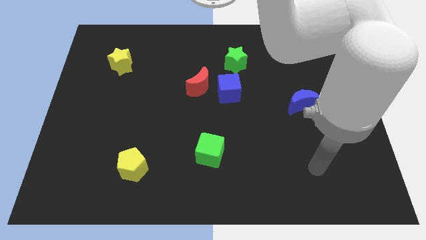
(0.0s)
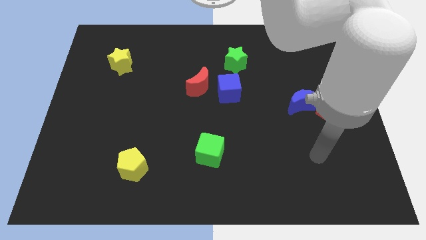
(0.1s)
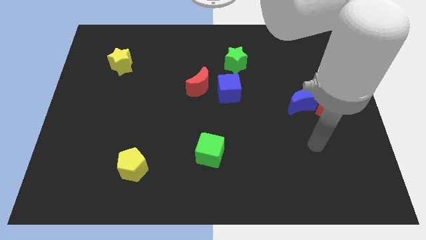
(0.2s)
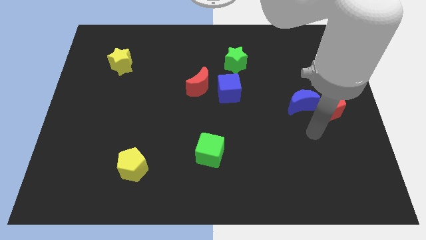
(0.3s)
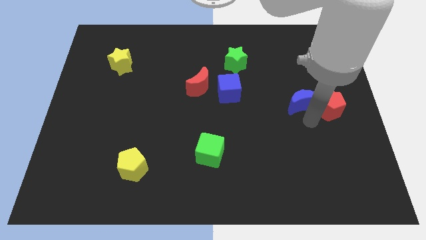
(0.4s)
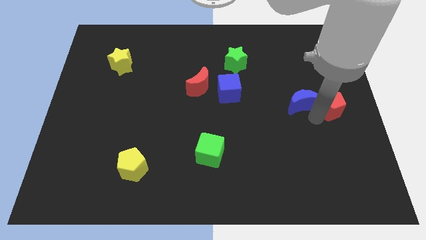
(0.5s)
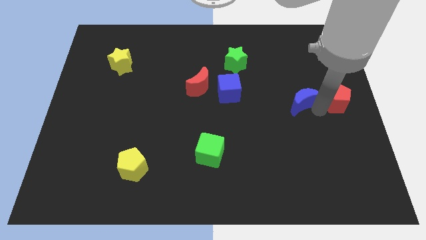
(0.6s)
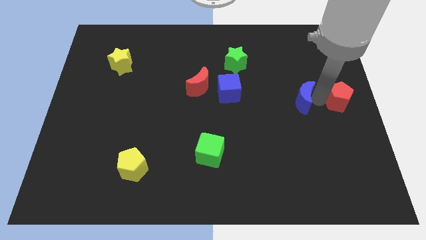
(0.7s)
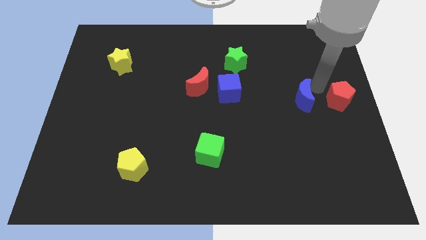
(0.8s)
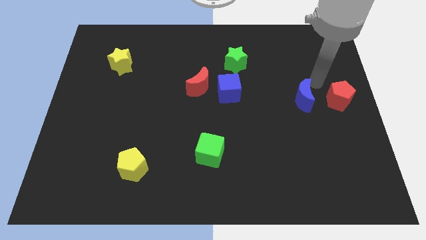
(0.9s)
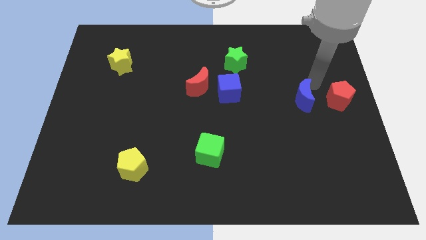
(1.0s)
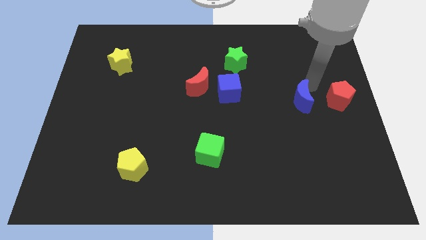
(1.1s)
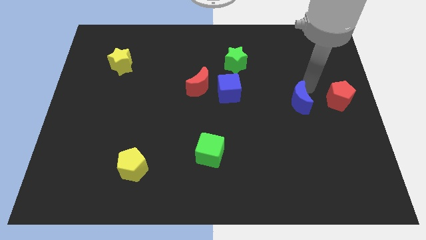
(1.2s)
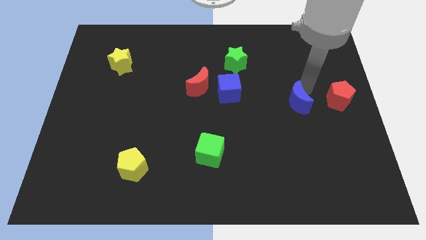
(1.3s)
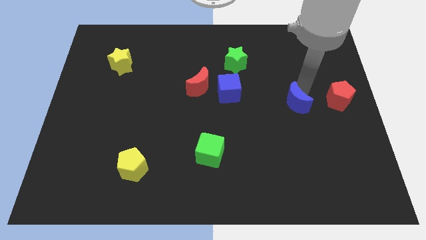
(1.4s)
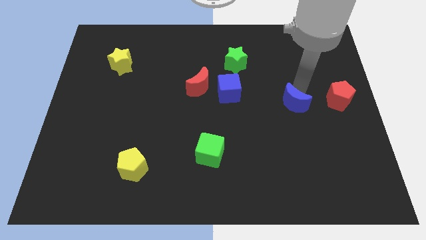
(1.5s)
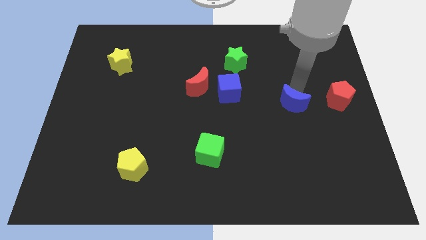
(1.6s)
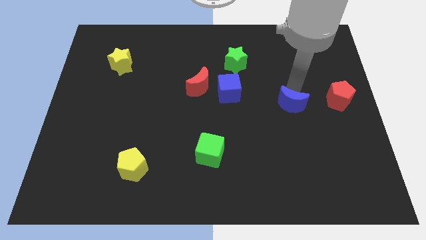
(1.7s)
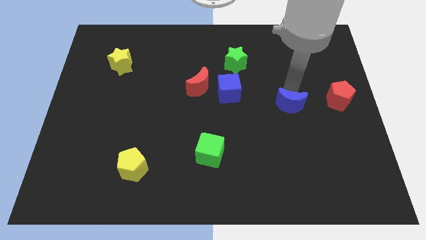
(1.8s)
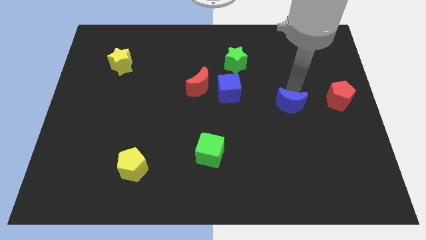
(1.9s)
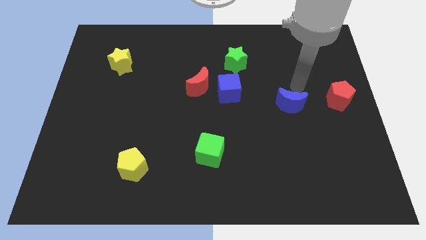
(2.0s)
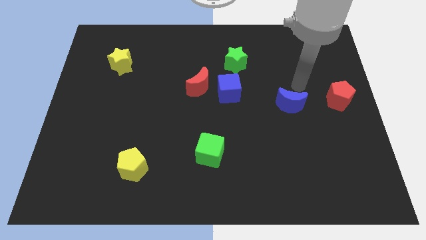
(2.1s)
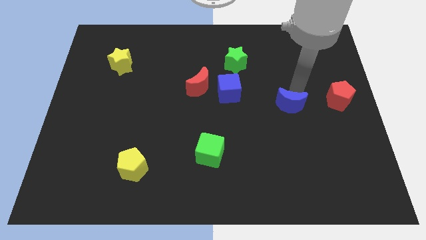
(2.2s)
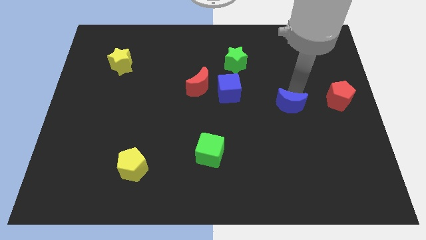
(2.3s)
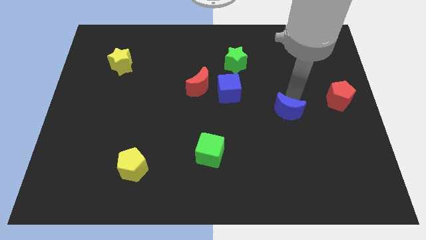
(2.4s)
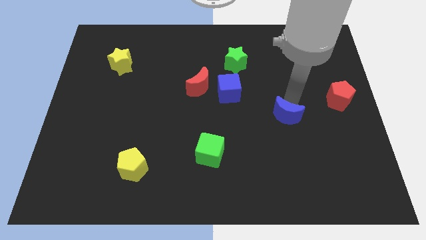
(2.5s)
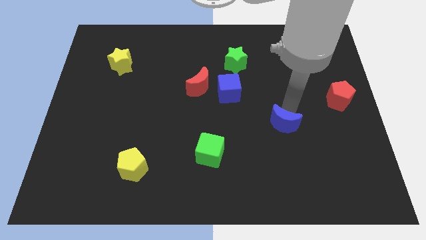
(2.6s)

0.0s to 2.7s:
slightly push the blue moon down and left diagonally

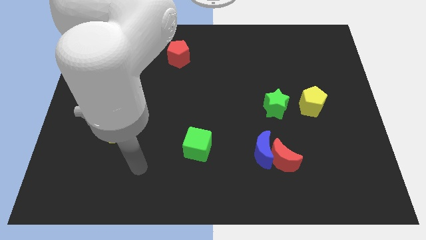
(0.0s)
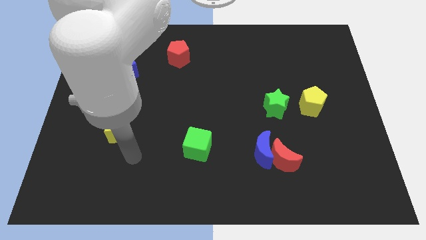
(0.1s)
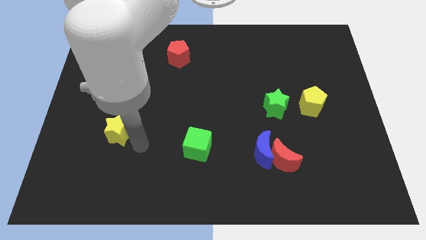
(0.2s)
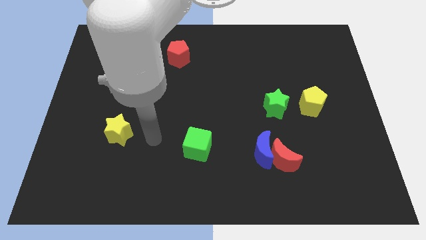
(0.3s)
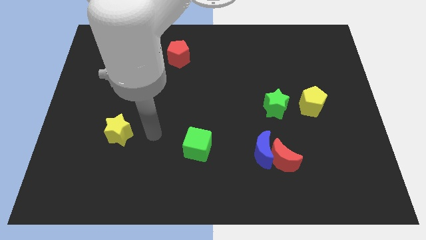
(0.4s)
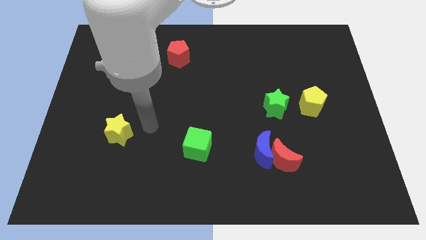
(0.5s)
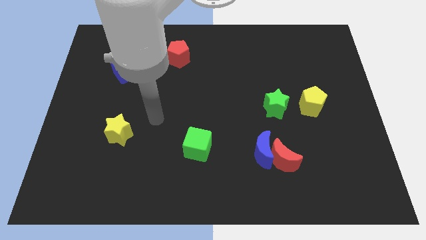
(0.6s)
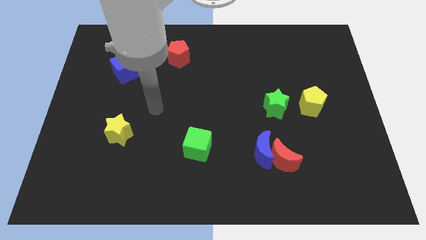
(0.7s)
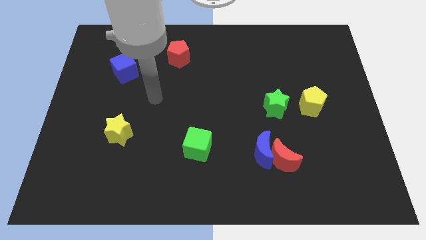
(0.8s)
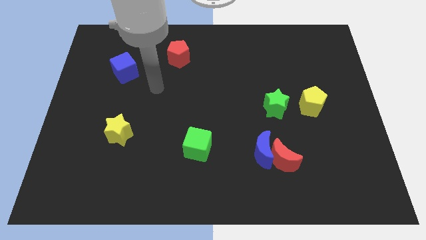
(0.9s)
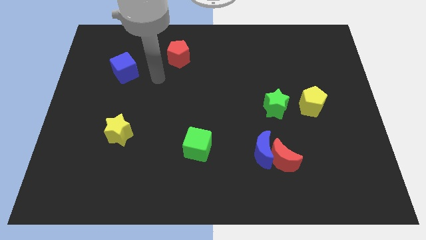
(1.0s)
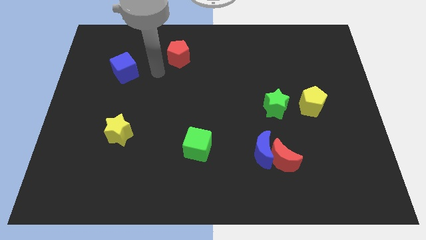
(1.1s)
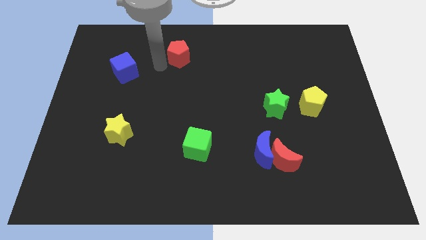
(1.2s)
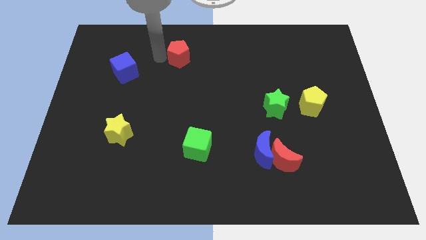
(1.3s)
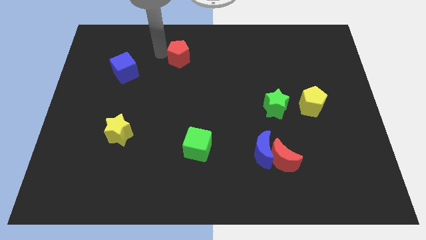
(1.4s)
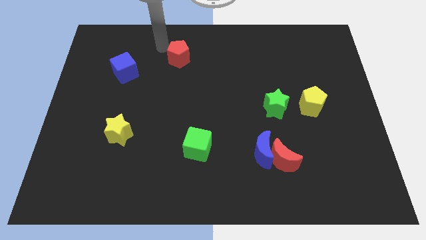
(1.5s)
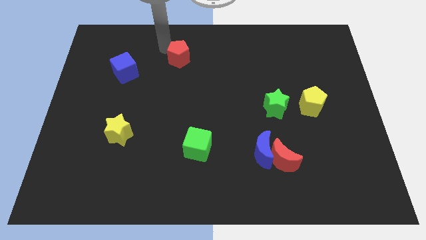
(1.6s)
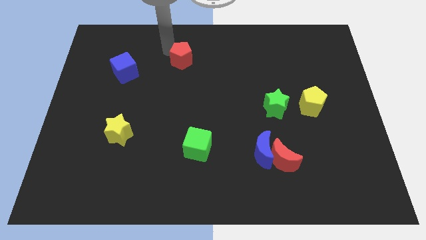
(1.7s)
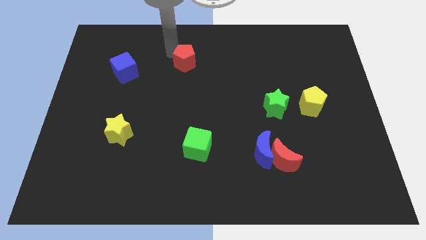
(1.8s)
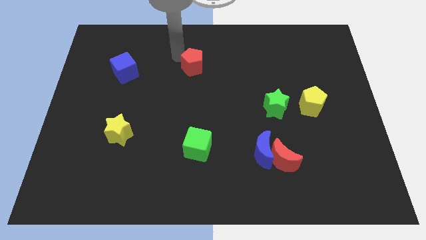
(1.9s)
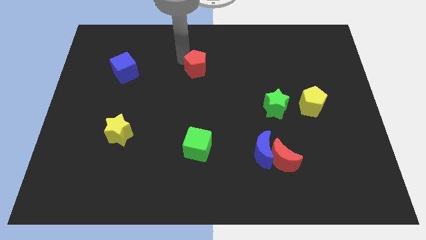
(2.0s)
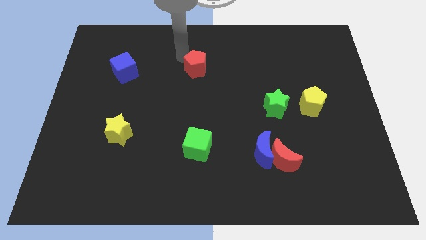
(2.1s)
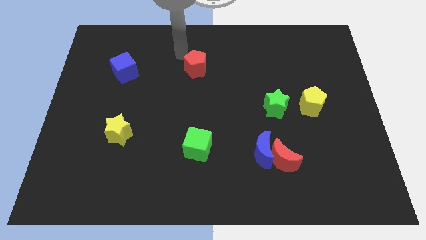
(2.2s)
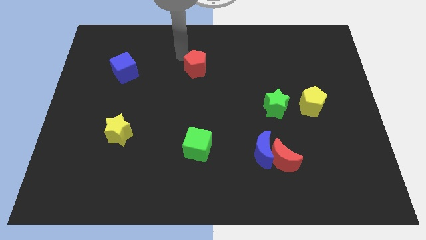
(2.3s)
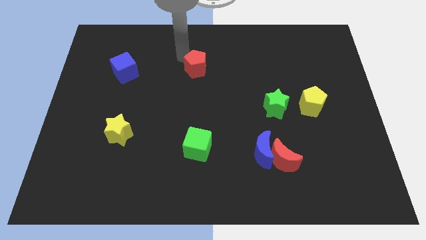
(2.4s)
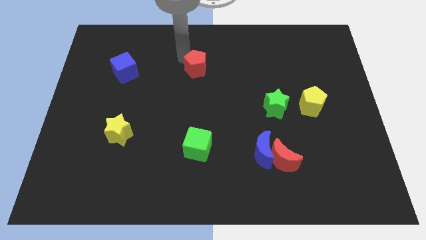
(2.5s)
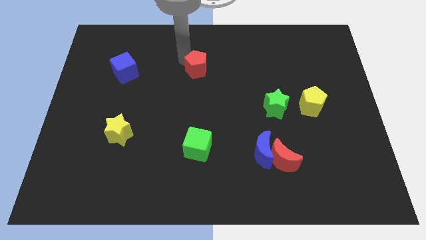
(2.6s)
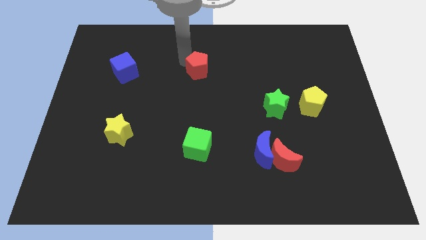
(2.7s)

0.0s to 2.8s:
push the red pentagon down and to the right a little

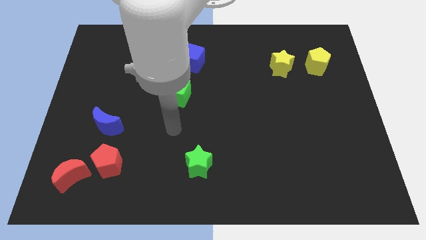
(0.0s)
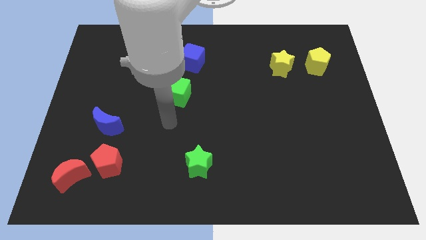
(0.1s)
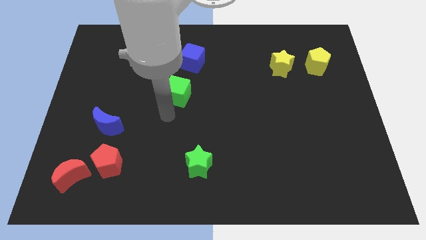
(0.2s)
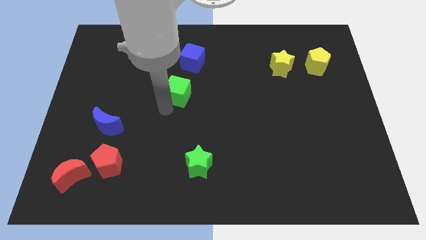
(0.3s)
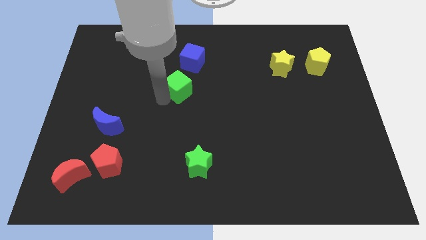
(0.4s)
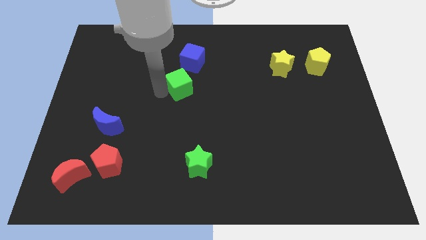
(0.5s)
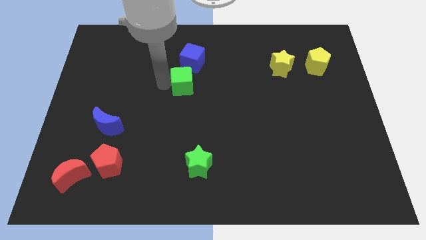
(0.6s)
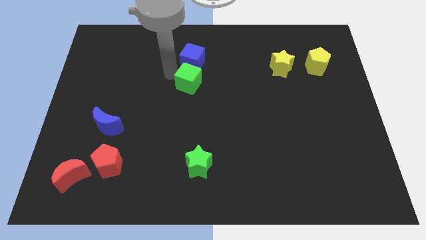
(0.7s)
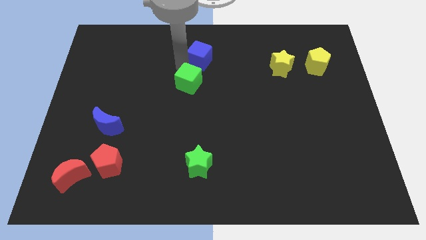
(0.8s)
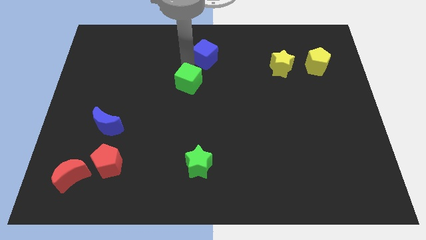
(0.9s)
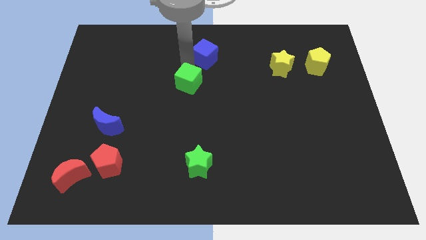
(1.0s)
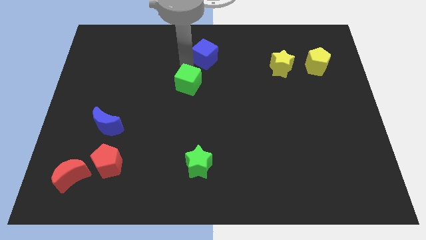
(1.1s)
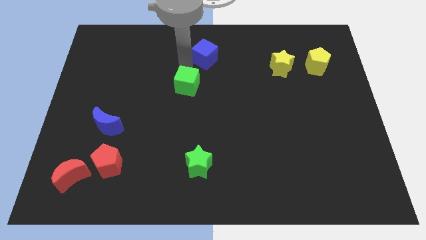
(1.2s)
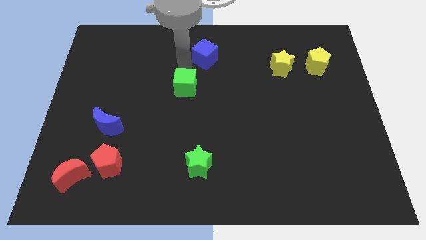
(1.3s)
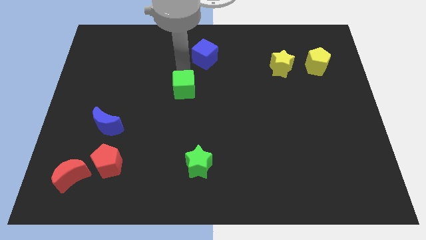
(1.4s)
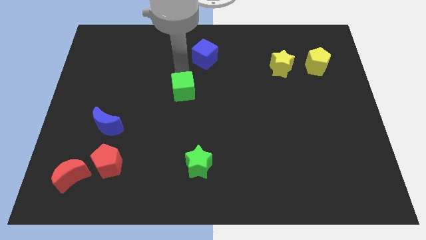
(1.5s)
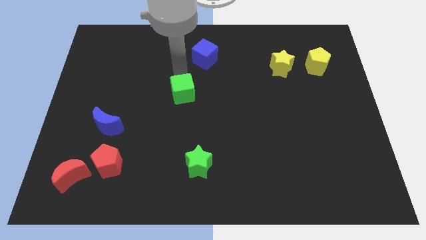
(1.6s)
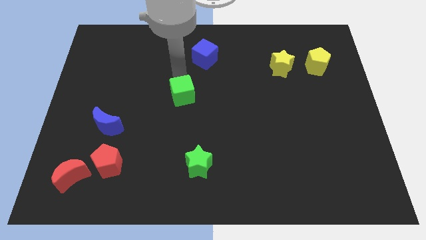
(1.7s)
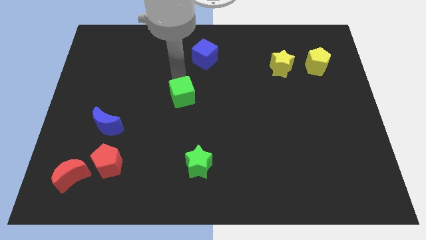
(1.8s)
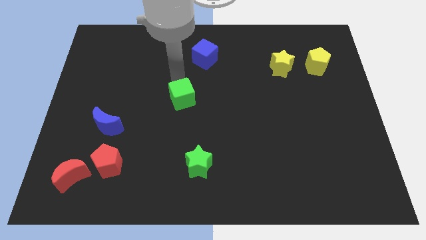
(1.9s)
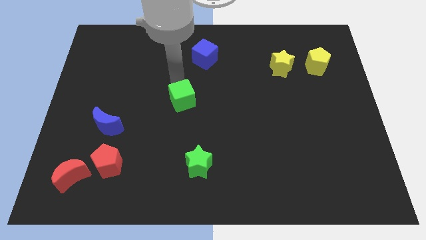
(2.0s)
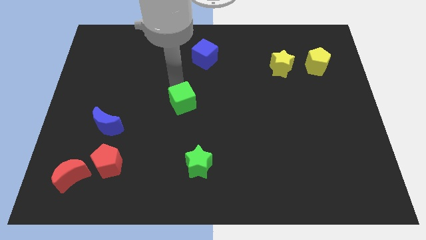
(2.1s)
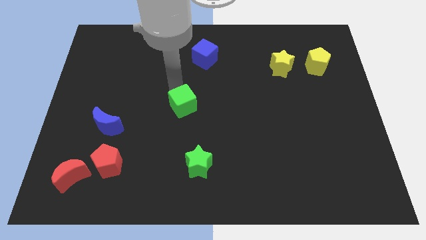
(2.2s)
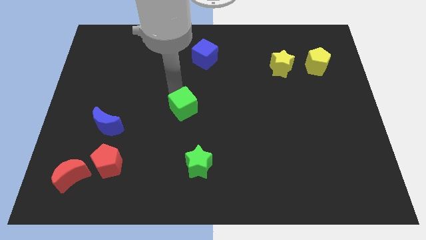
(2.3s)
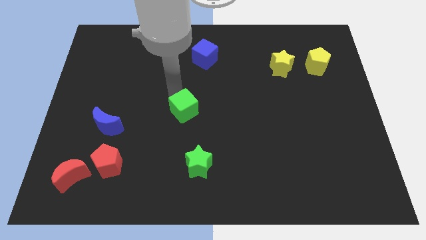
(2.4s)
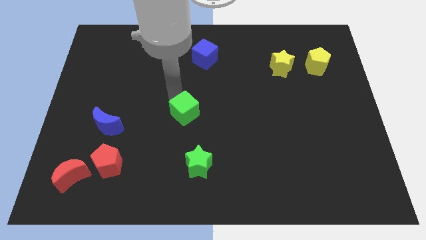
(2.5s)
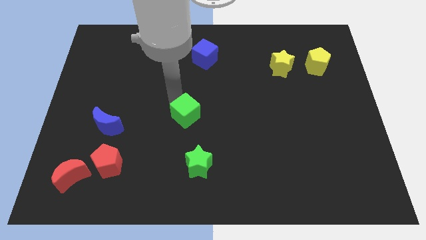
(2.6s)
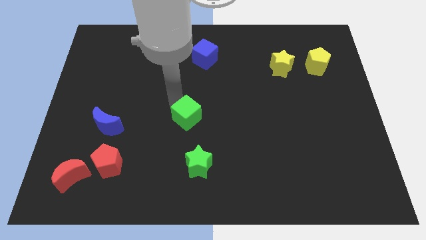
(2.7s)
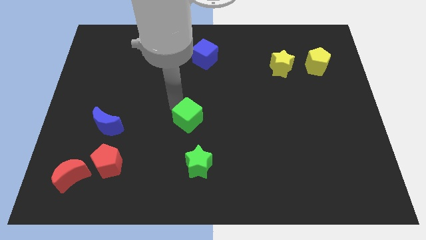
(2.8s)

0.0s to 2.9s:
slightly move the green cube down and to the right

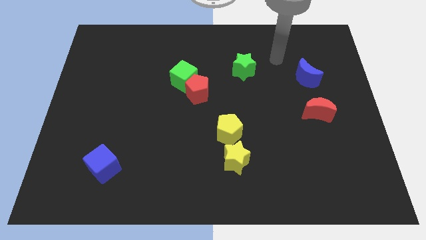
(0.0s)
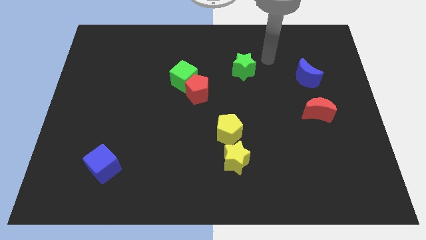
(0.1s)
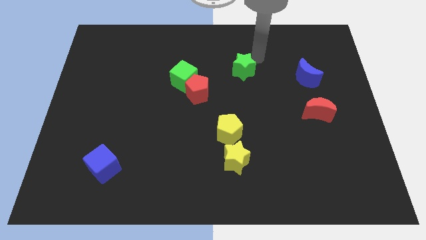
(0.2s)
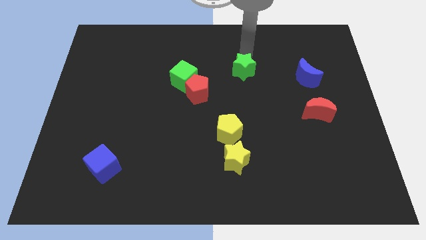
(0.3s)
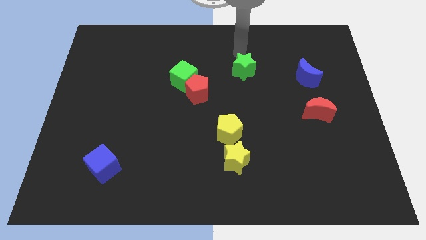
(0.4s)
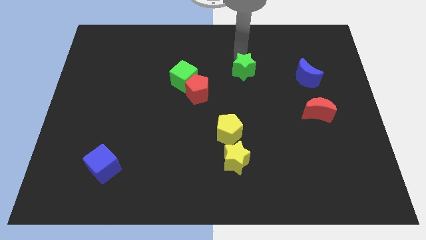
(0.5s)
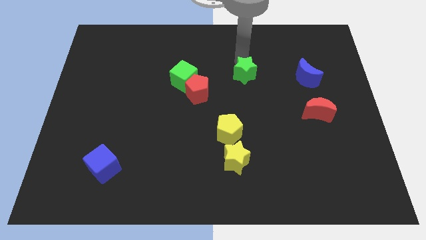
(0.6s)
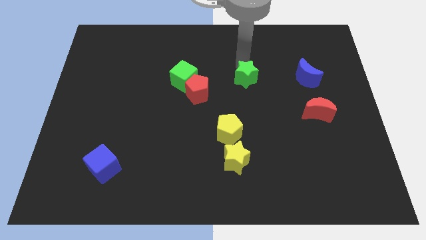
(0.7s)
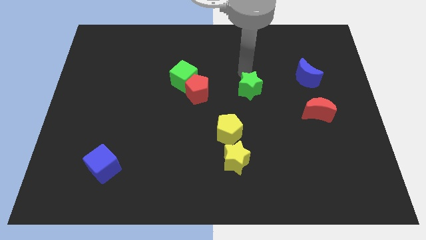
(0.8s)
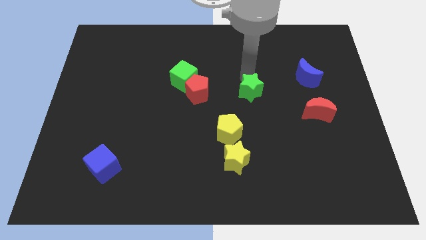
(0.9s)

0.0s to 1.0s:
push the green star a little bit down
